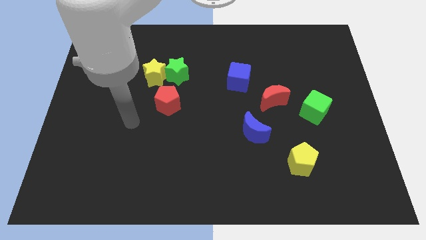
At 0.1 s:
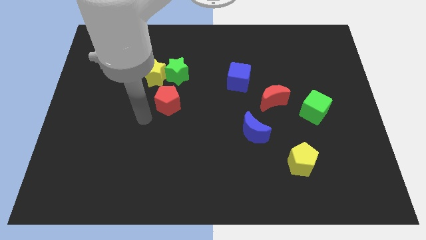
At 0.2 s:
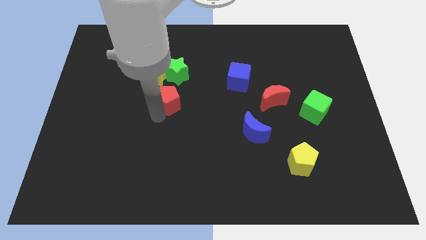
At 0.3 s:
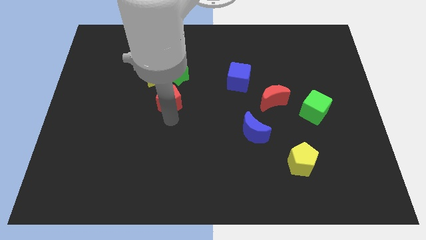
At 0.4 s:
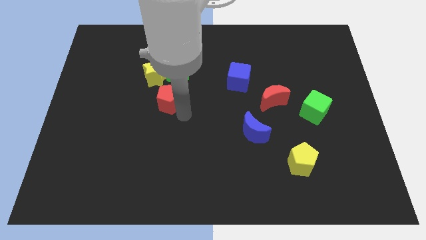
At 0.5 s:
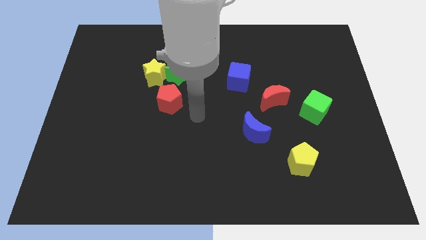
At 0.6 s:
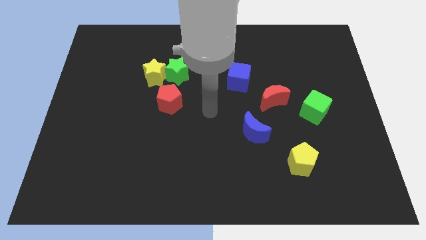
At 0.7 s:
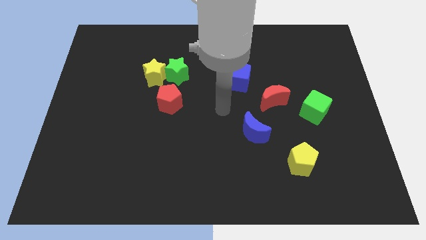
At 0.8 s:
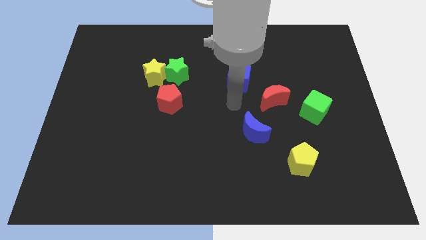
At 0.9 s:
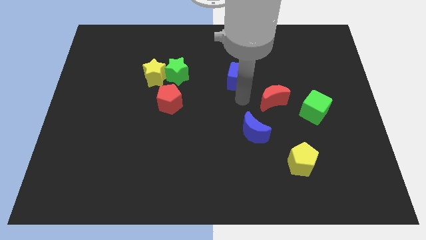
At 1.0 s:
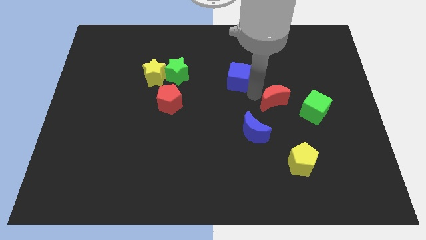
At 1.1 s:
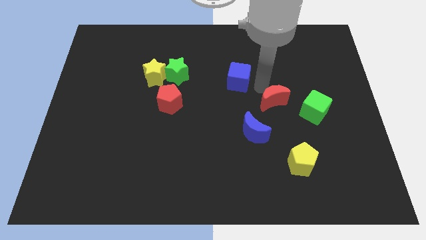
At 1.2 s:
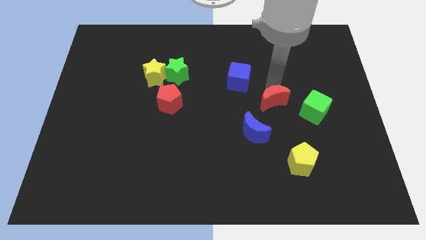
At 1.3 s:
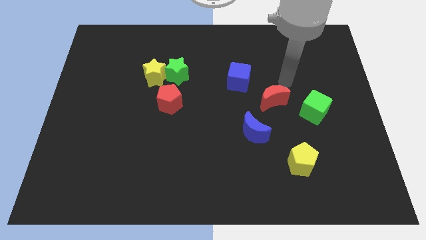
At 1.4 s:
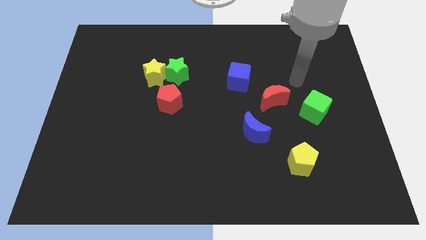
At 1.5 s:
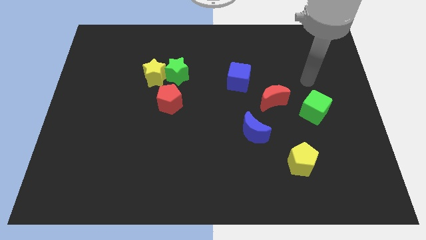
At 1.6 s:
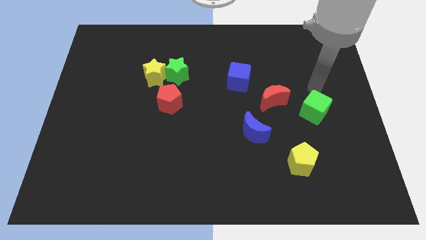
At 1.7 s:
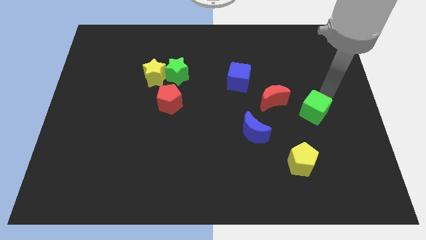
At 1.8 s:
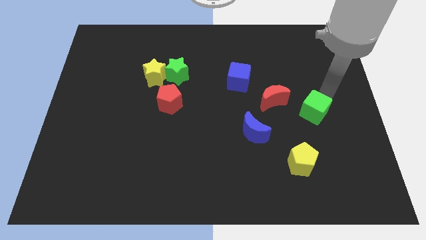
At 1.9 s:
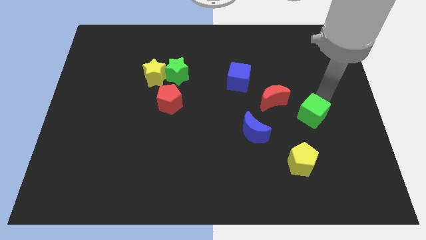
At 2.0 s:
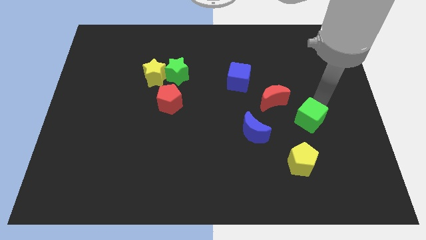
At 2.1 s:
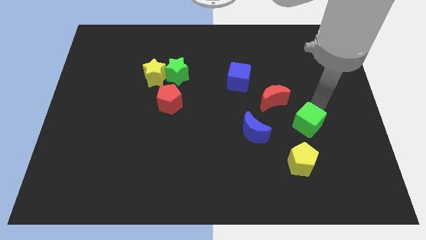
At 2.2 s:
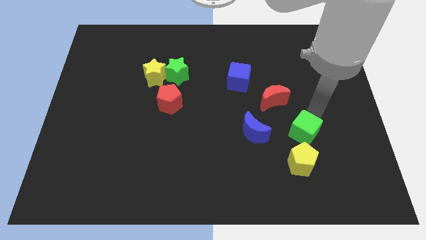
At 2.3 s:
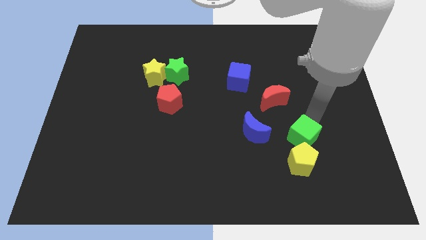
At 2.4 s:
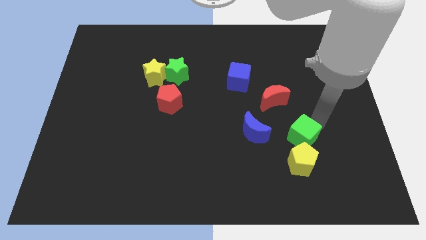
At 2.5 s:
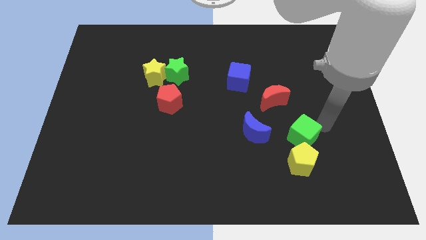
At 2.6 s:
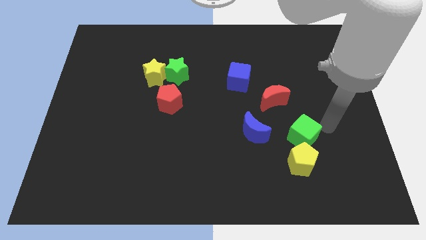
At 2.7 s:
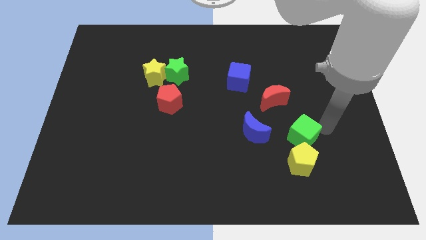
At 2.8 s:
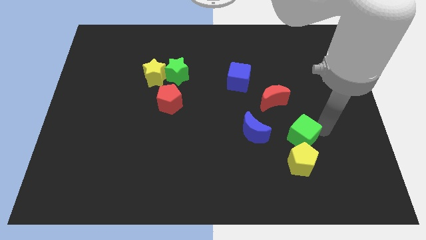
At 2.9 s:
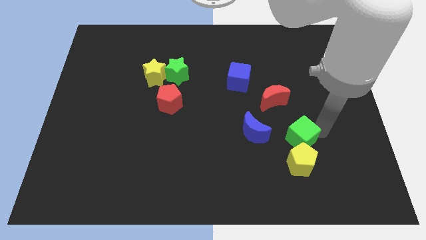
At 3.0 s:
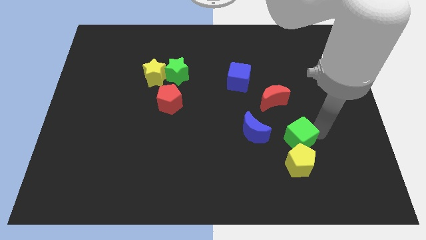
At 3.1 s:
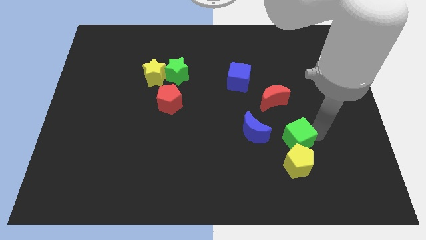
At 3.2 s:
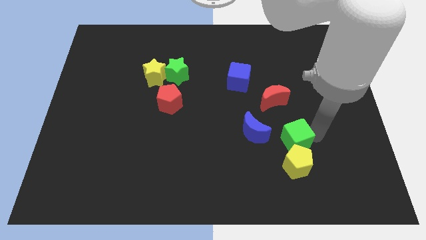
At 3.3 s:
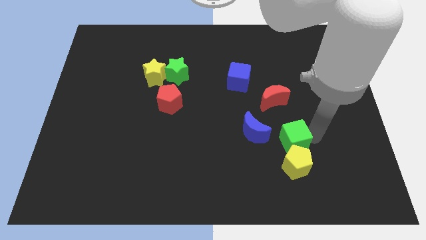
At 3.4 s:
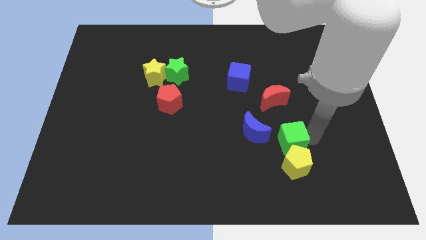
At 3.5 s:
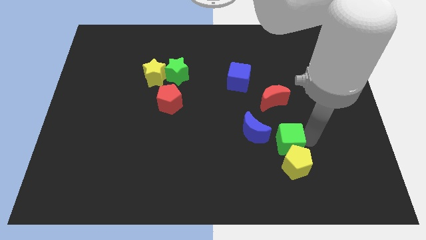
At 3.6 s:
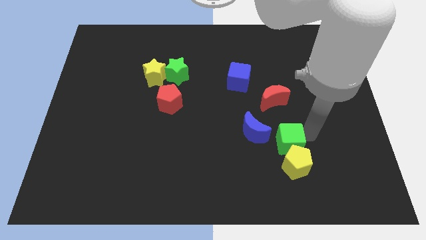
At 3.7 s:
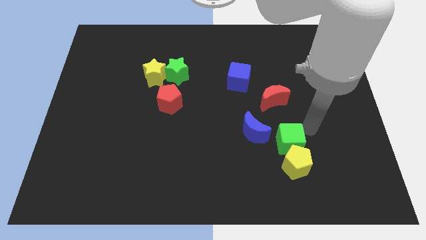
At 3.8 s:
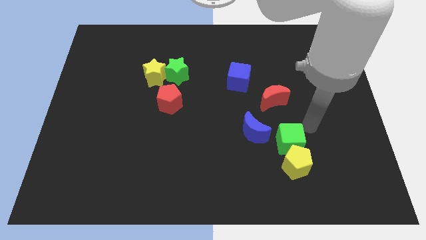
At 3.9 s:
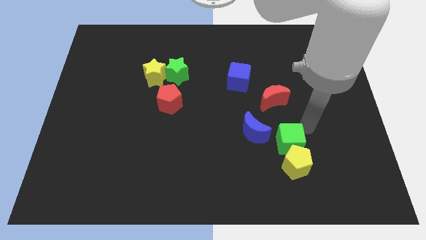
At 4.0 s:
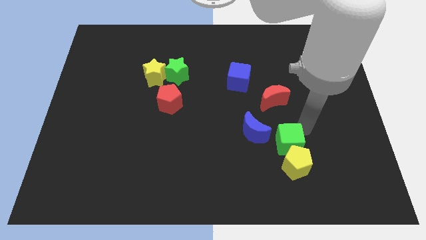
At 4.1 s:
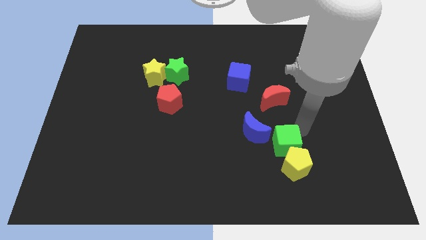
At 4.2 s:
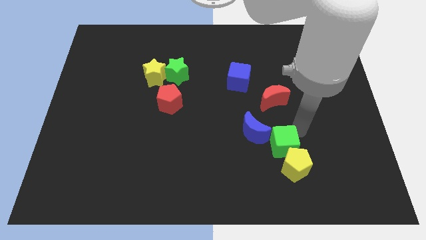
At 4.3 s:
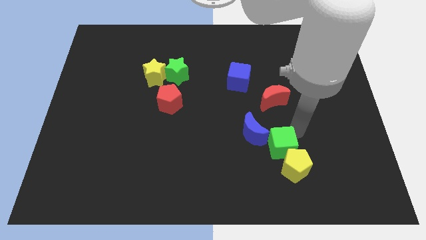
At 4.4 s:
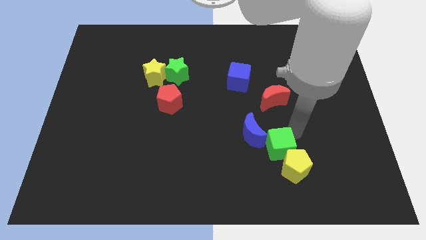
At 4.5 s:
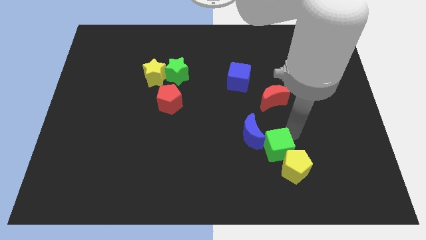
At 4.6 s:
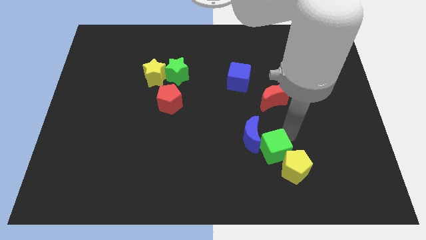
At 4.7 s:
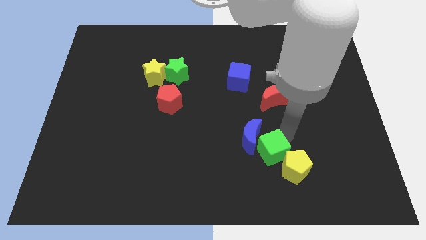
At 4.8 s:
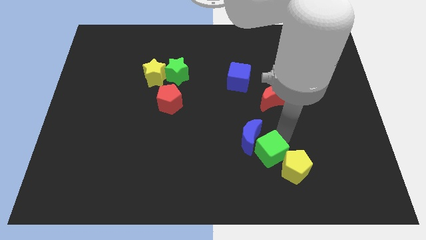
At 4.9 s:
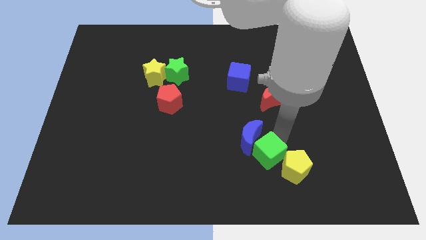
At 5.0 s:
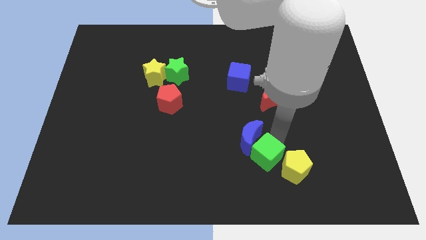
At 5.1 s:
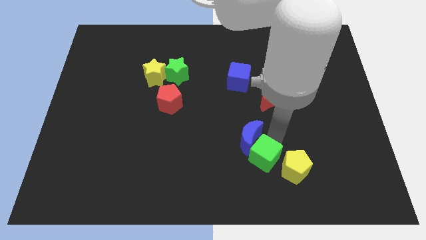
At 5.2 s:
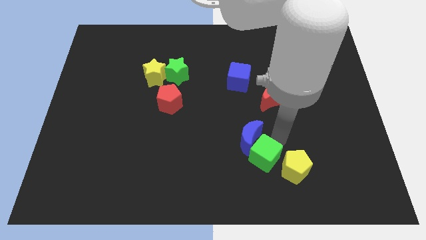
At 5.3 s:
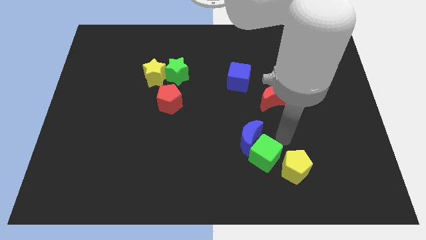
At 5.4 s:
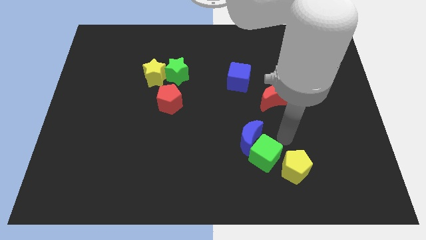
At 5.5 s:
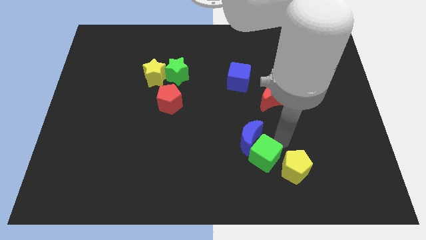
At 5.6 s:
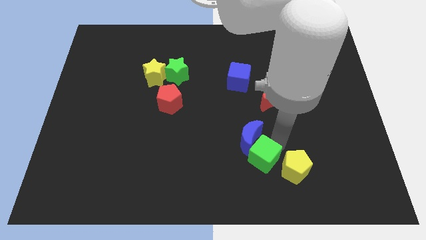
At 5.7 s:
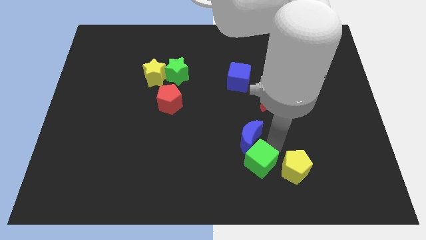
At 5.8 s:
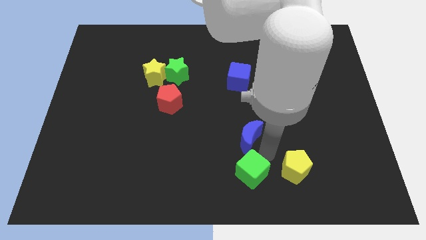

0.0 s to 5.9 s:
put the green cube to the bottom side

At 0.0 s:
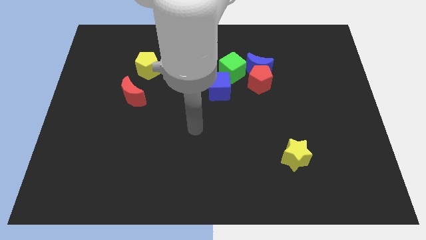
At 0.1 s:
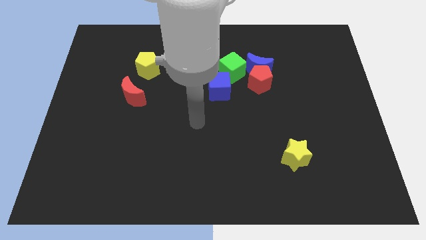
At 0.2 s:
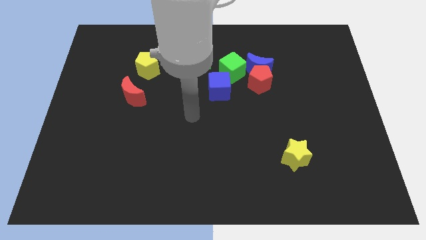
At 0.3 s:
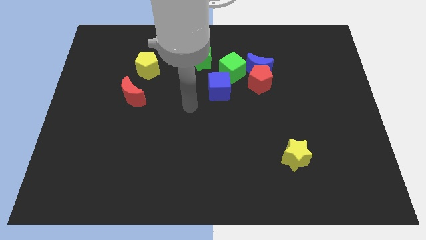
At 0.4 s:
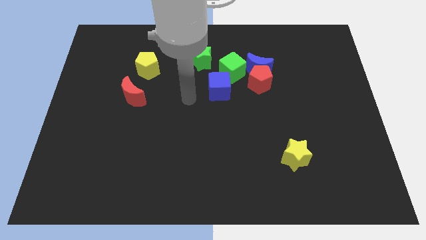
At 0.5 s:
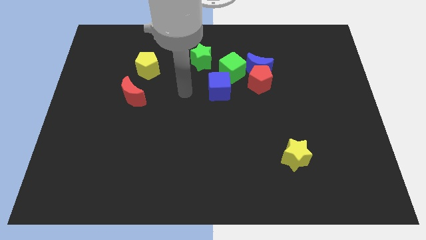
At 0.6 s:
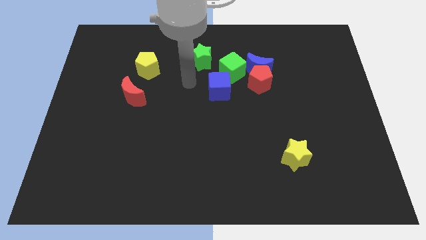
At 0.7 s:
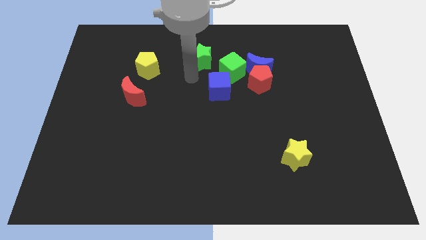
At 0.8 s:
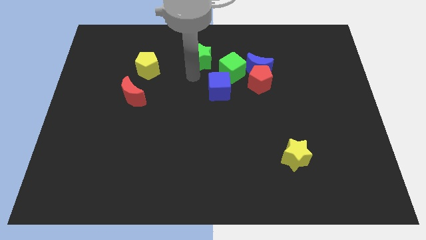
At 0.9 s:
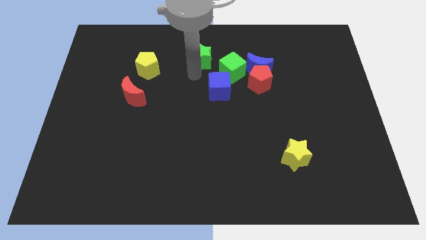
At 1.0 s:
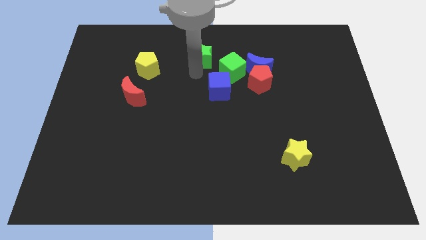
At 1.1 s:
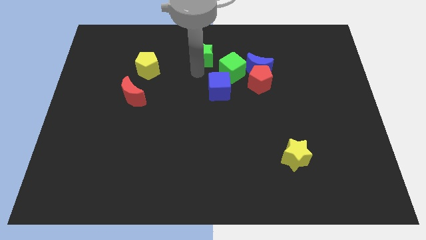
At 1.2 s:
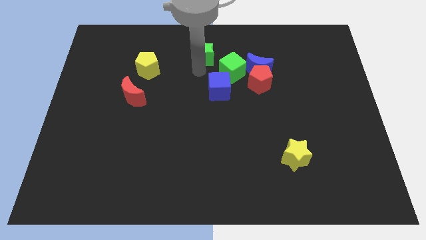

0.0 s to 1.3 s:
slide the green star to the towards your base
